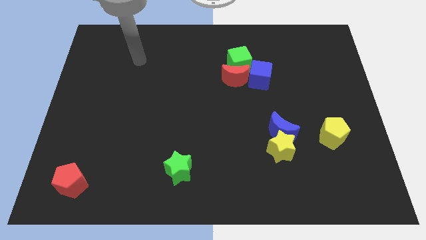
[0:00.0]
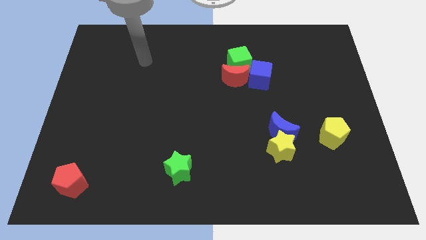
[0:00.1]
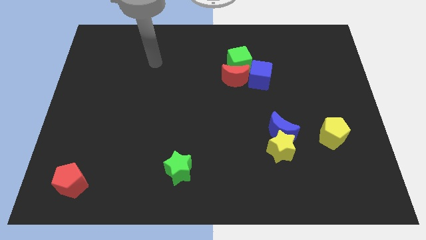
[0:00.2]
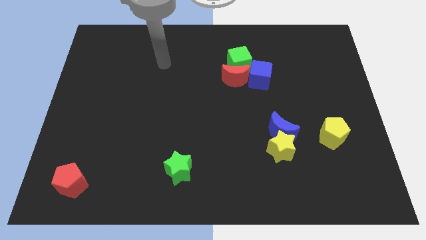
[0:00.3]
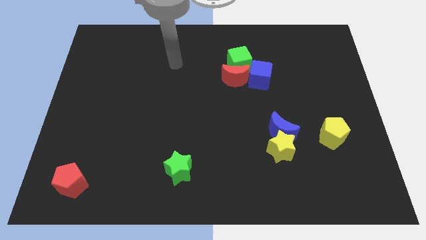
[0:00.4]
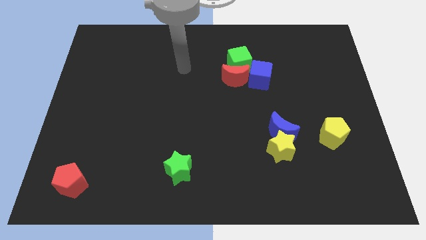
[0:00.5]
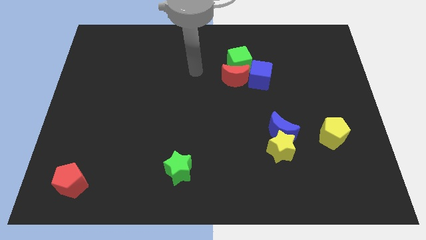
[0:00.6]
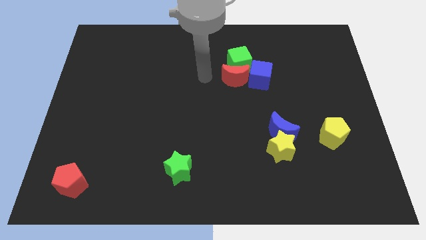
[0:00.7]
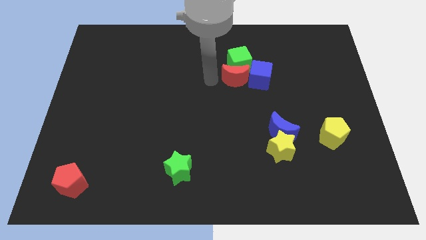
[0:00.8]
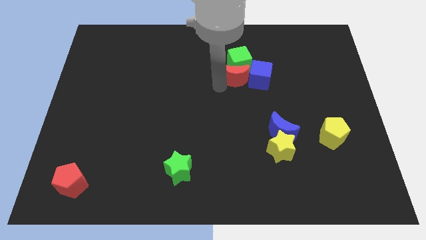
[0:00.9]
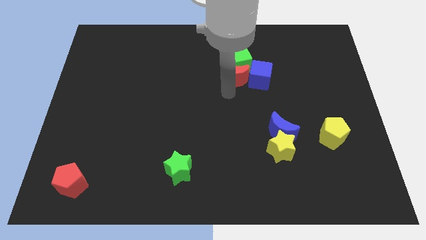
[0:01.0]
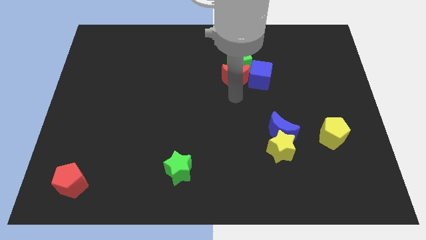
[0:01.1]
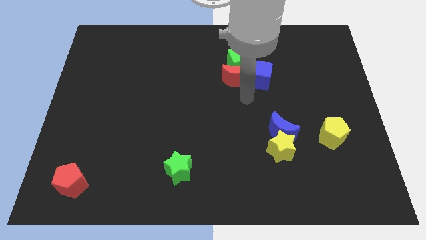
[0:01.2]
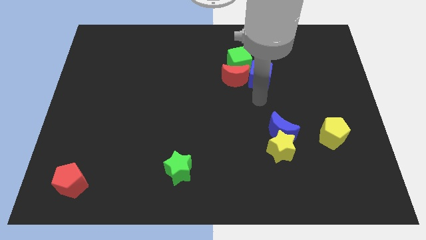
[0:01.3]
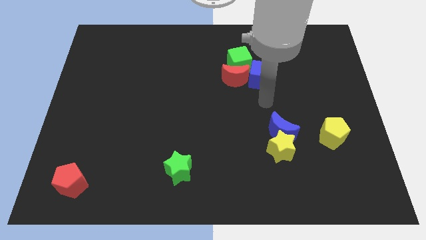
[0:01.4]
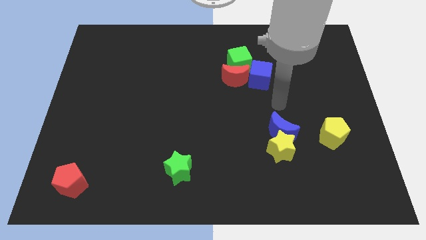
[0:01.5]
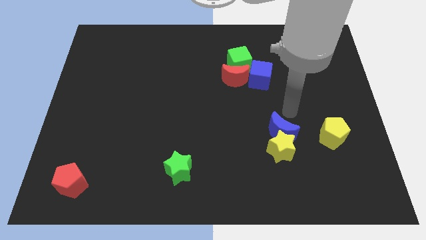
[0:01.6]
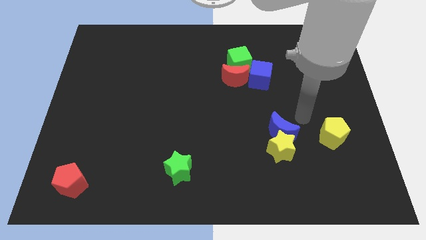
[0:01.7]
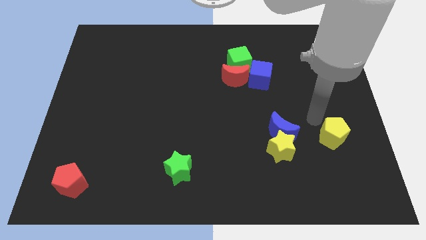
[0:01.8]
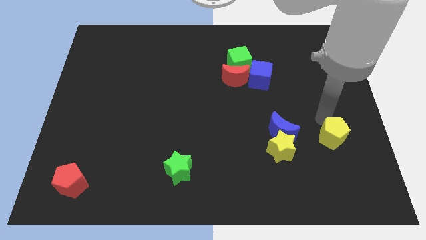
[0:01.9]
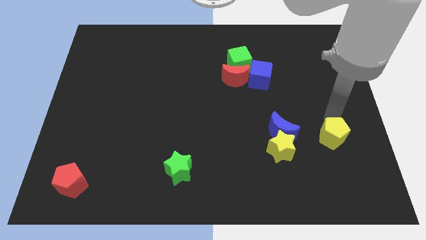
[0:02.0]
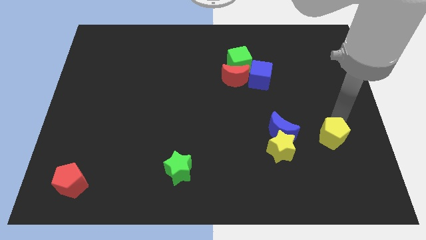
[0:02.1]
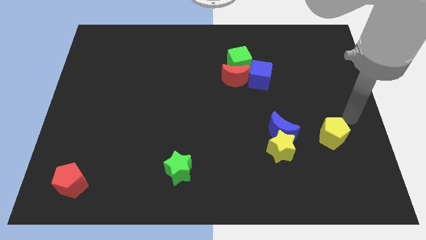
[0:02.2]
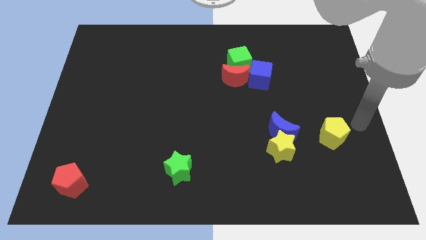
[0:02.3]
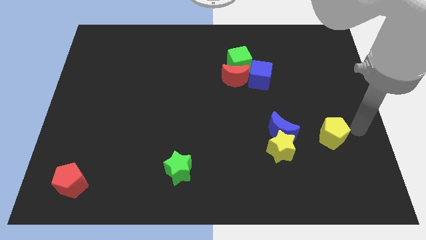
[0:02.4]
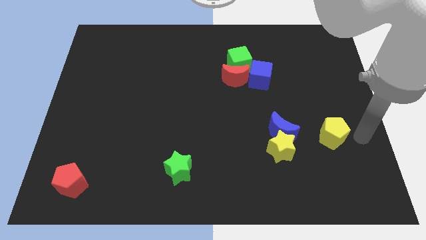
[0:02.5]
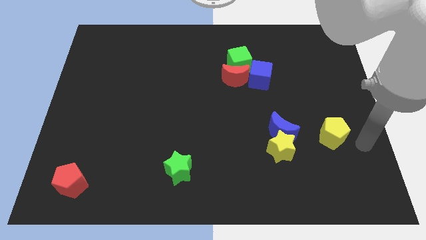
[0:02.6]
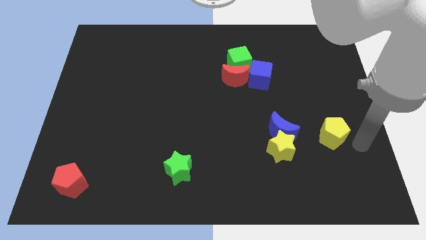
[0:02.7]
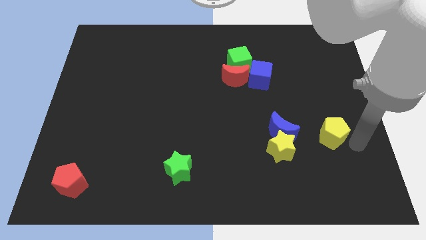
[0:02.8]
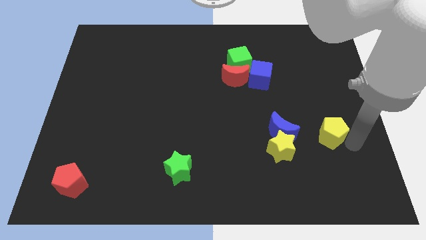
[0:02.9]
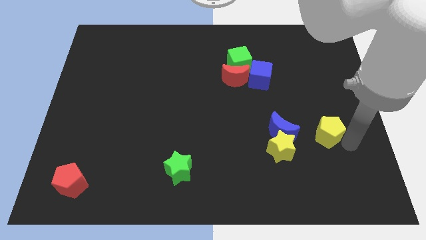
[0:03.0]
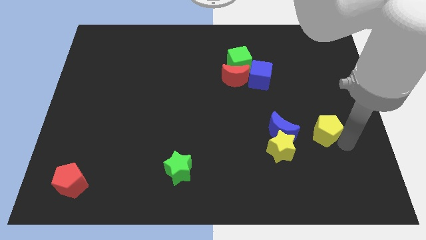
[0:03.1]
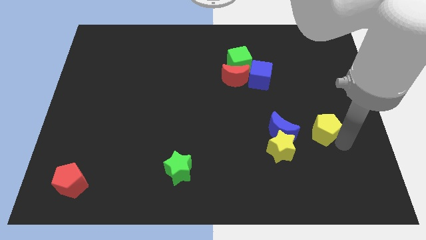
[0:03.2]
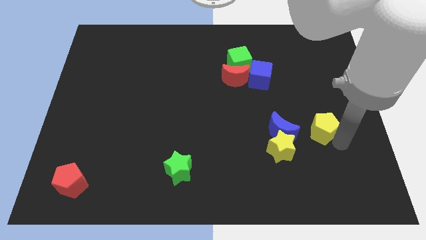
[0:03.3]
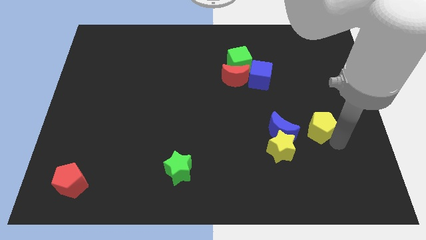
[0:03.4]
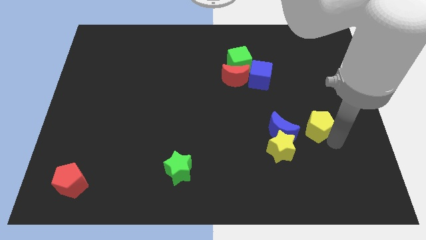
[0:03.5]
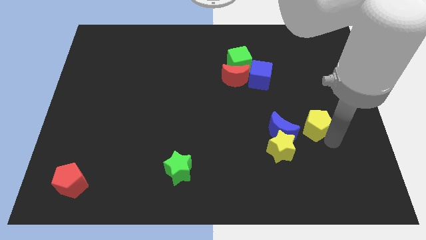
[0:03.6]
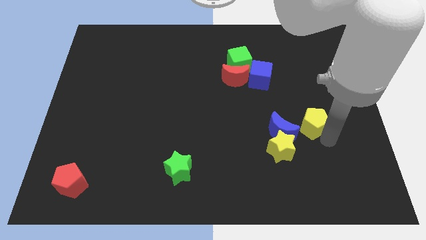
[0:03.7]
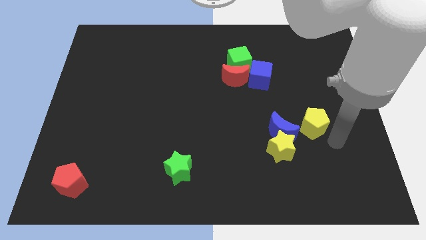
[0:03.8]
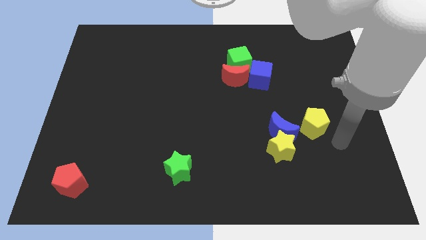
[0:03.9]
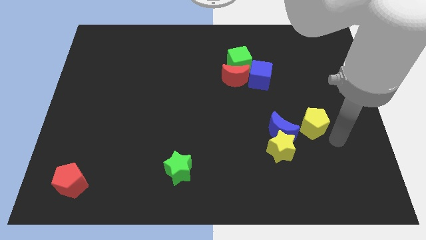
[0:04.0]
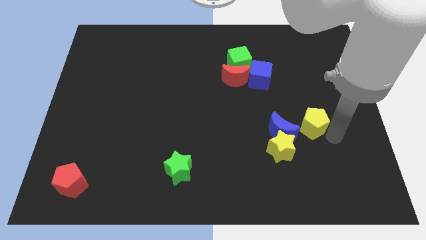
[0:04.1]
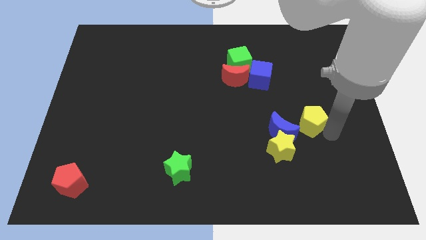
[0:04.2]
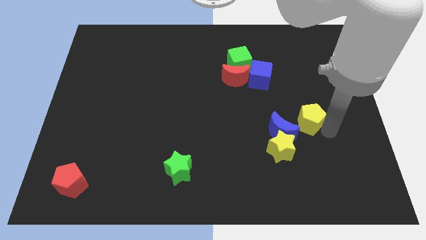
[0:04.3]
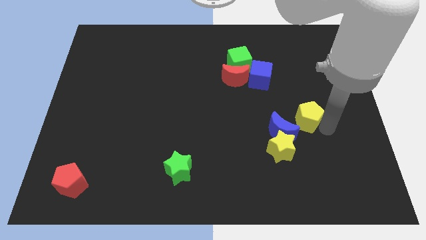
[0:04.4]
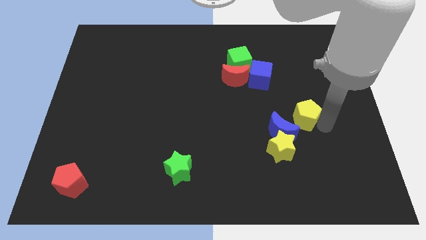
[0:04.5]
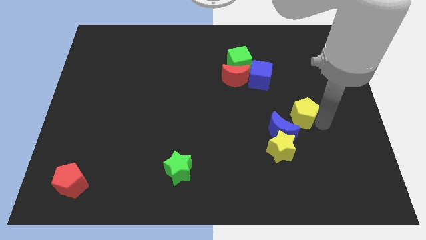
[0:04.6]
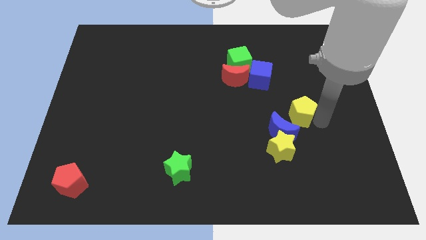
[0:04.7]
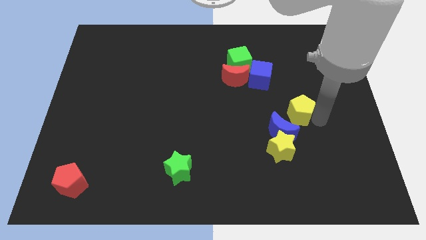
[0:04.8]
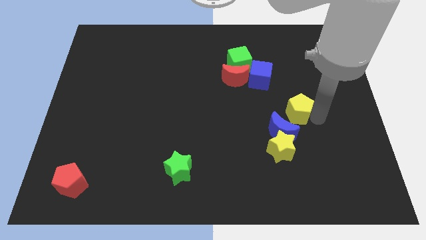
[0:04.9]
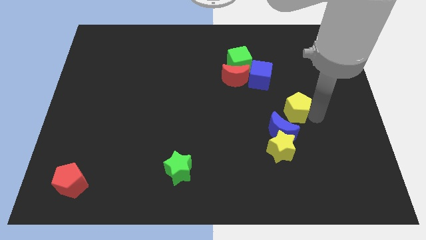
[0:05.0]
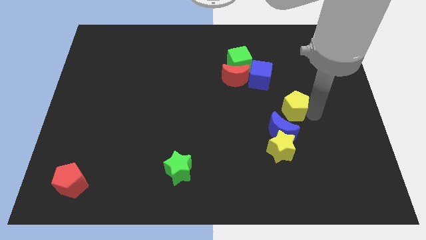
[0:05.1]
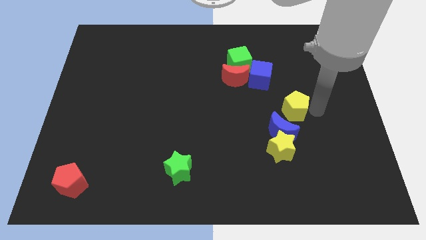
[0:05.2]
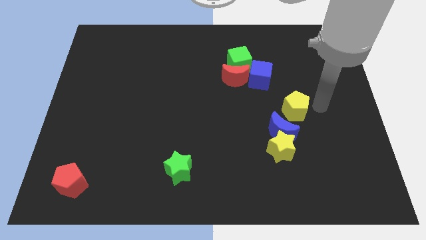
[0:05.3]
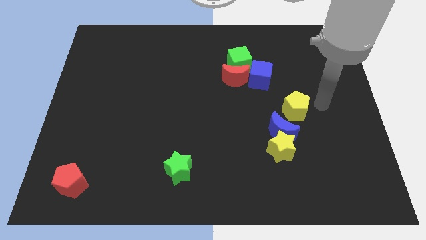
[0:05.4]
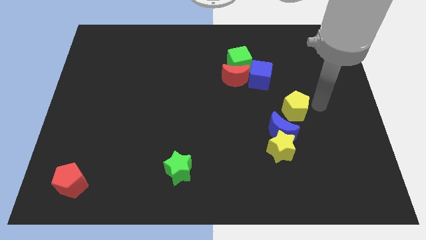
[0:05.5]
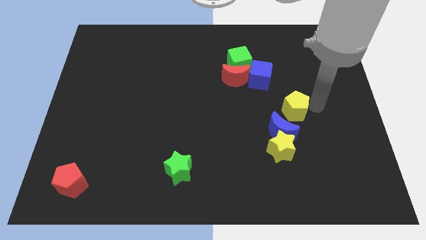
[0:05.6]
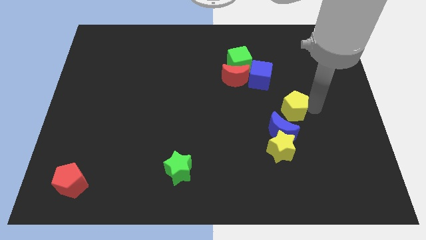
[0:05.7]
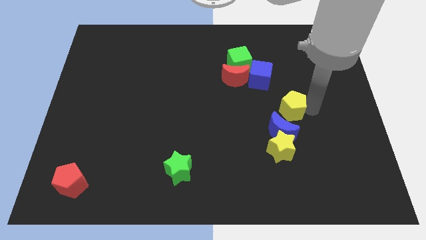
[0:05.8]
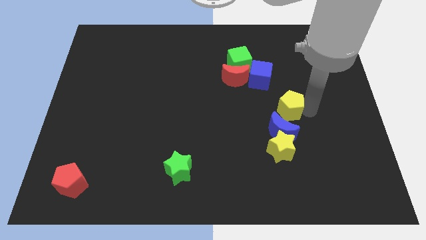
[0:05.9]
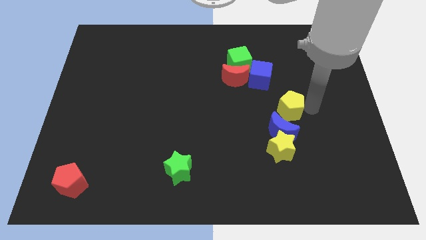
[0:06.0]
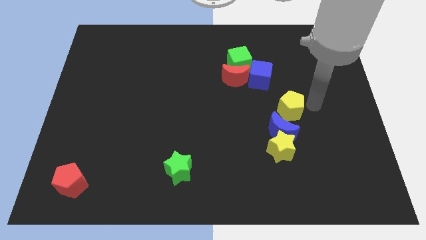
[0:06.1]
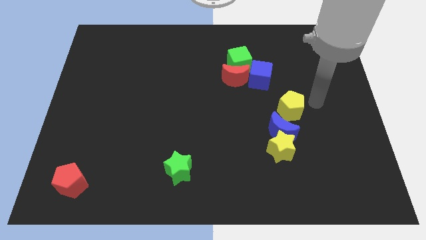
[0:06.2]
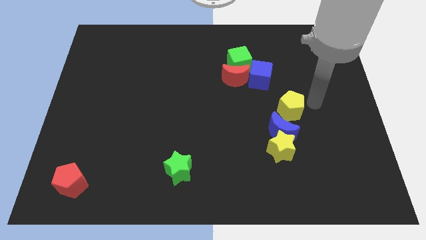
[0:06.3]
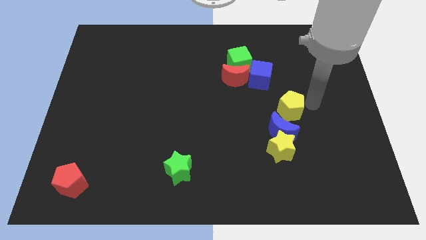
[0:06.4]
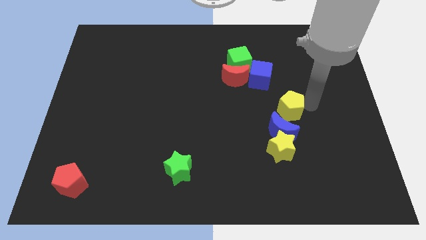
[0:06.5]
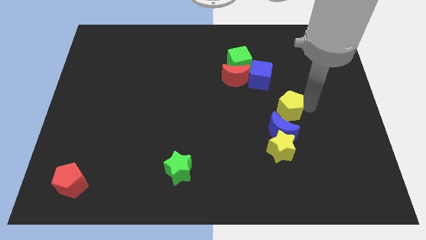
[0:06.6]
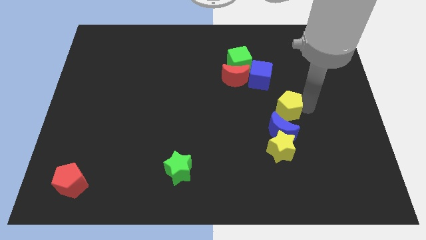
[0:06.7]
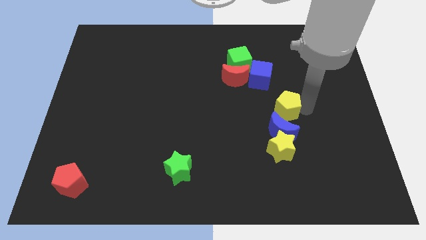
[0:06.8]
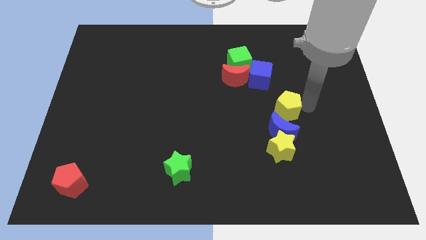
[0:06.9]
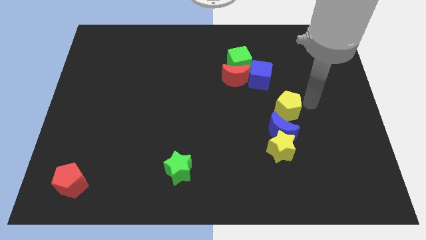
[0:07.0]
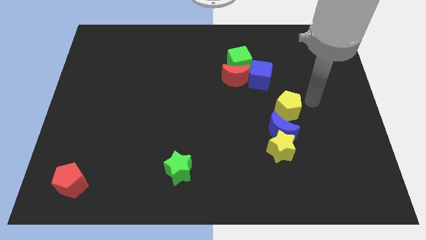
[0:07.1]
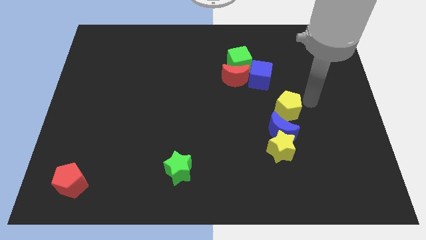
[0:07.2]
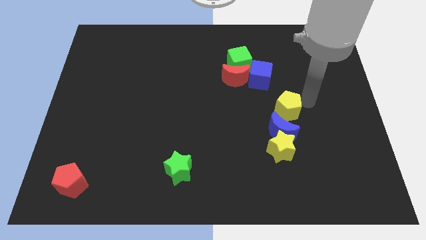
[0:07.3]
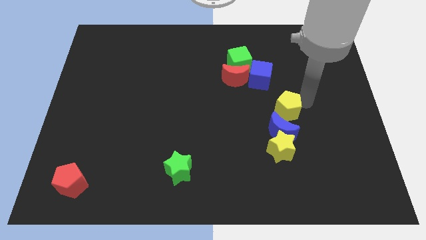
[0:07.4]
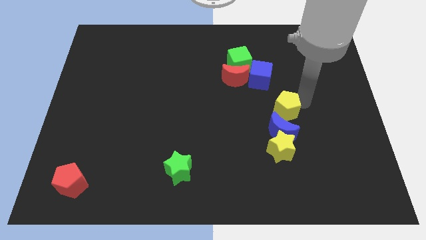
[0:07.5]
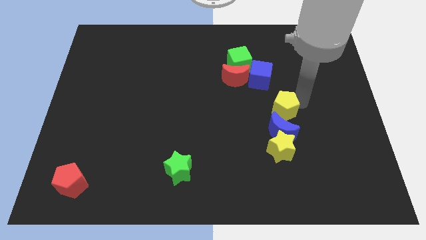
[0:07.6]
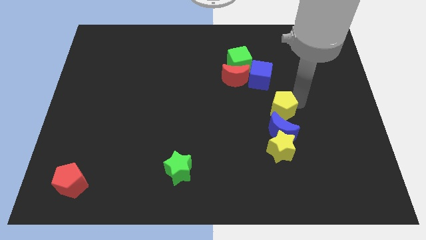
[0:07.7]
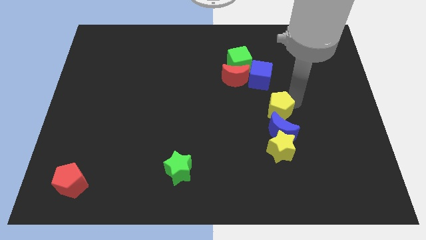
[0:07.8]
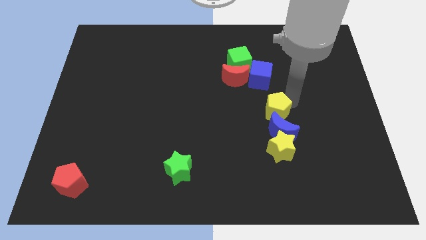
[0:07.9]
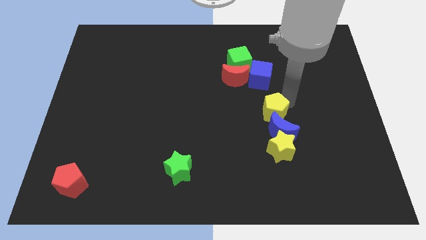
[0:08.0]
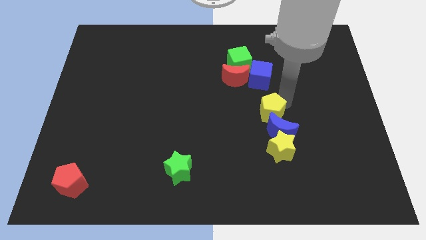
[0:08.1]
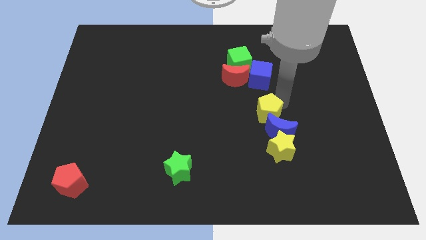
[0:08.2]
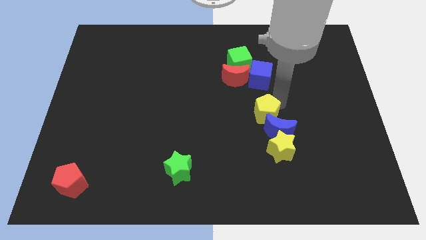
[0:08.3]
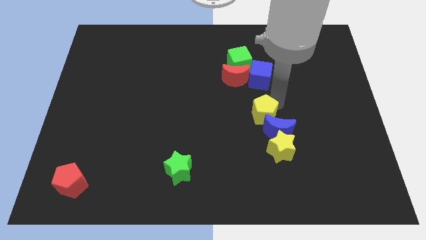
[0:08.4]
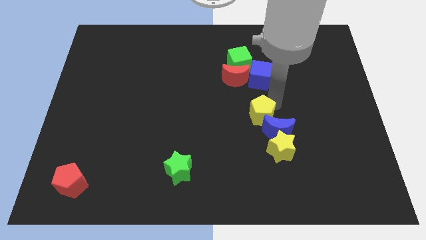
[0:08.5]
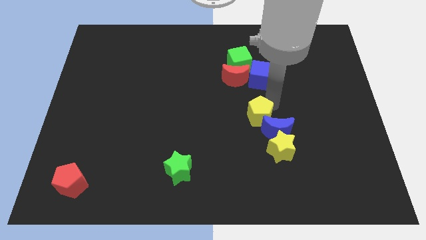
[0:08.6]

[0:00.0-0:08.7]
slide the yellow pentagon left of the blue moon
